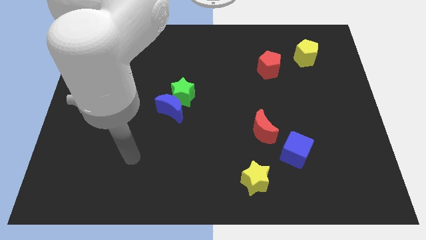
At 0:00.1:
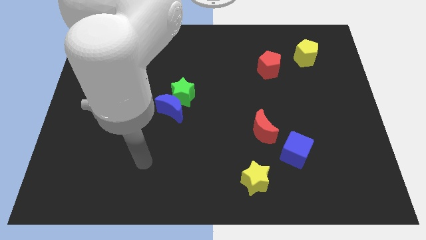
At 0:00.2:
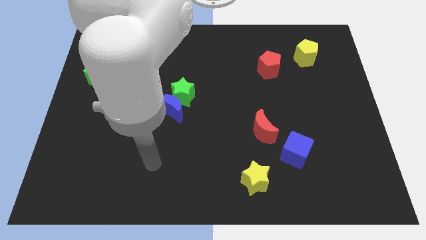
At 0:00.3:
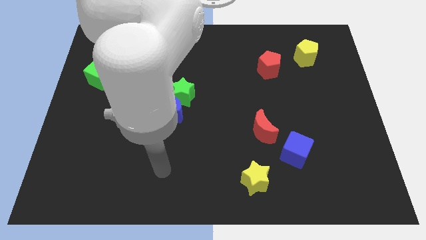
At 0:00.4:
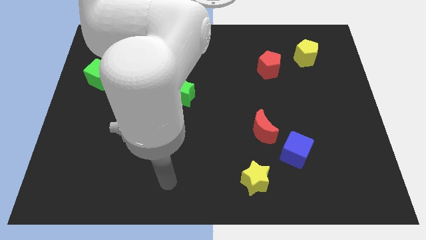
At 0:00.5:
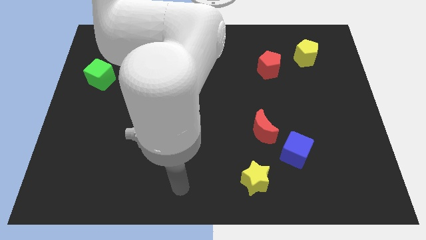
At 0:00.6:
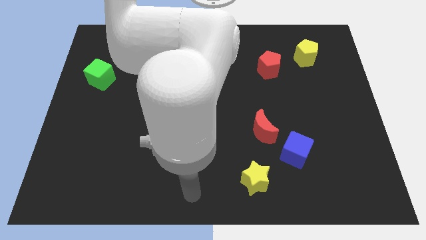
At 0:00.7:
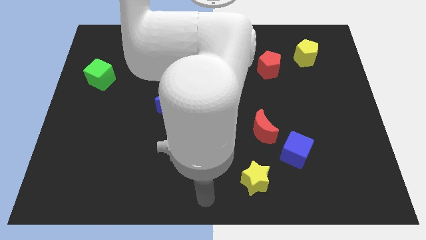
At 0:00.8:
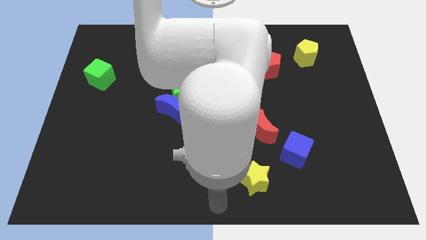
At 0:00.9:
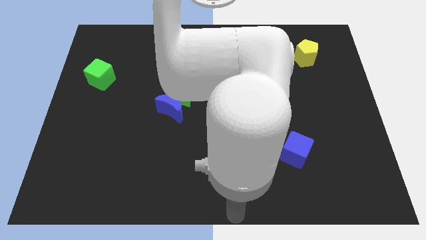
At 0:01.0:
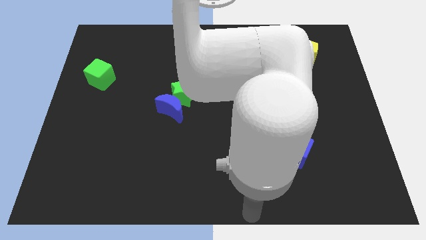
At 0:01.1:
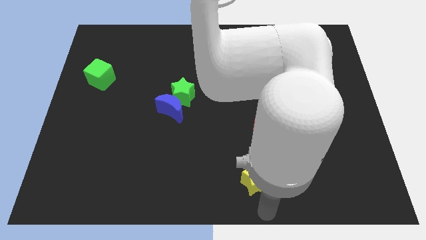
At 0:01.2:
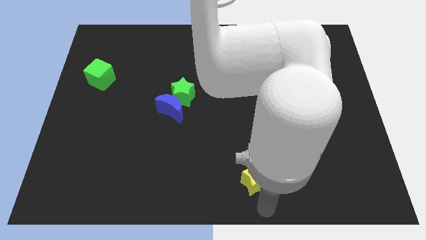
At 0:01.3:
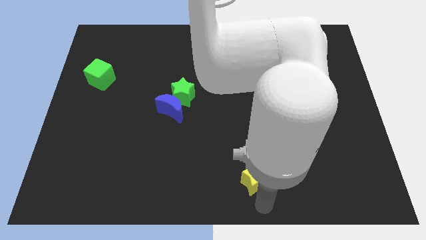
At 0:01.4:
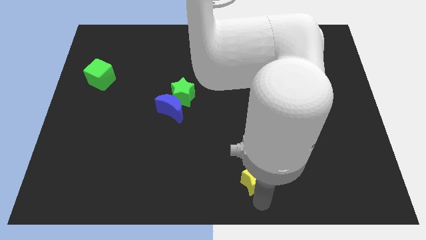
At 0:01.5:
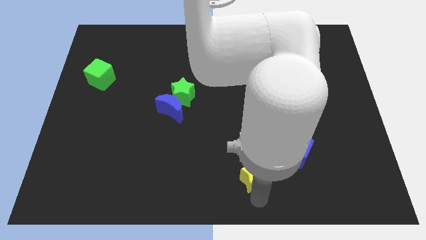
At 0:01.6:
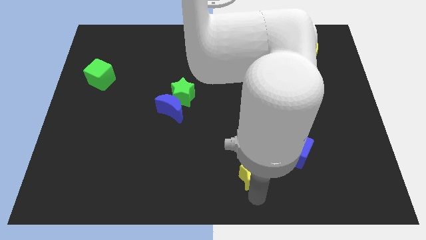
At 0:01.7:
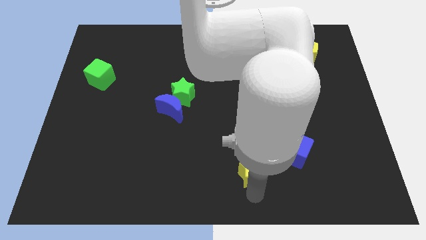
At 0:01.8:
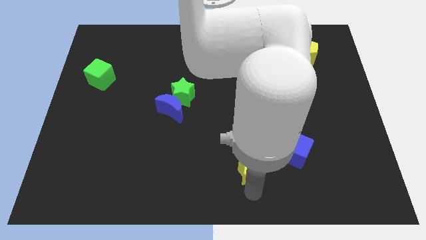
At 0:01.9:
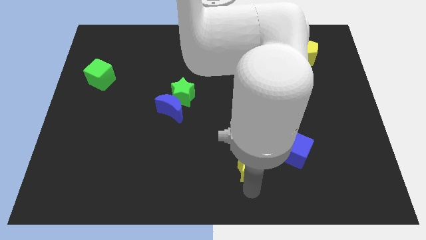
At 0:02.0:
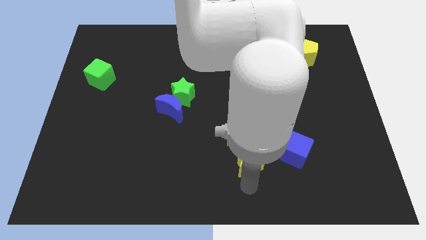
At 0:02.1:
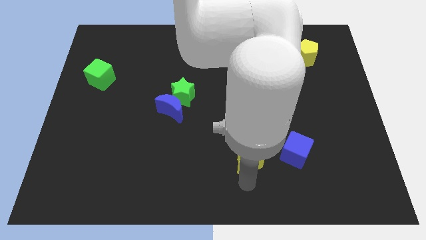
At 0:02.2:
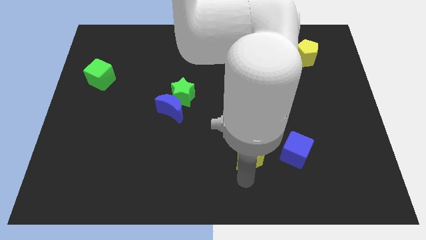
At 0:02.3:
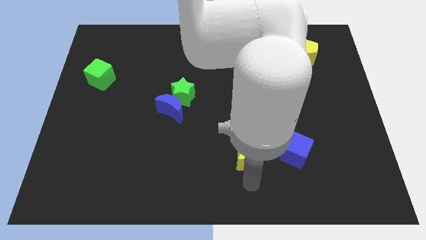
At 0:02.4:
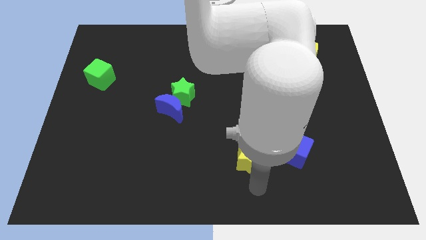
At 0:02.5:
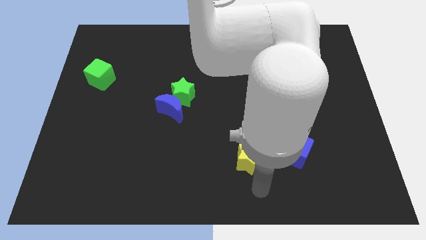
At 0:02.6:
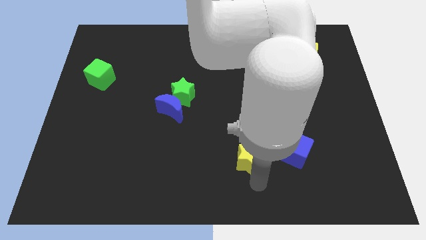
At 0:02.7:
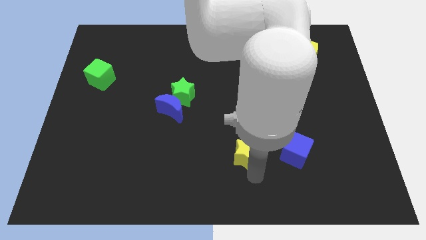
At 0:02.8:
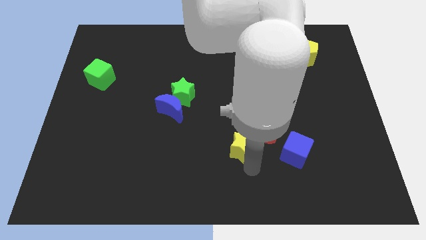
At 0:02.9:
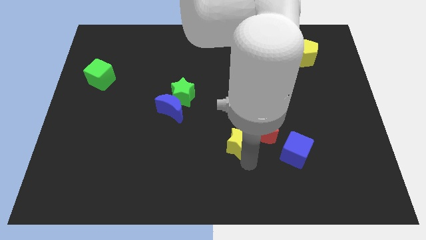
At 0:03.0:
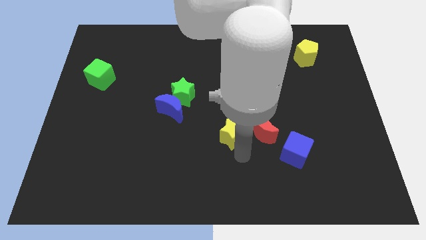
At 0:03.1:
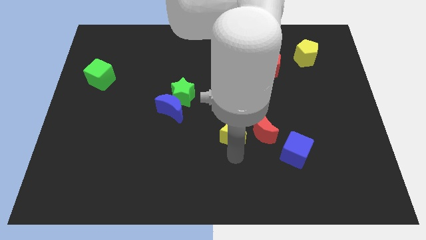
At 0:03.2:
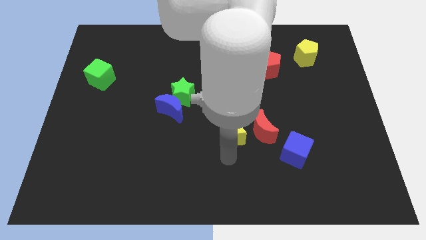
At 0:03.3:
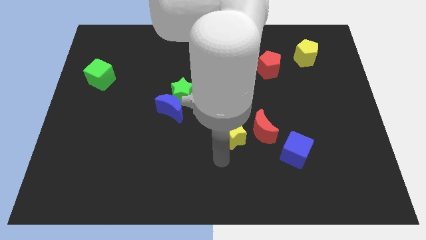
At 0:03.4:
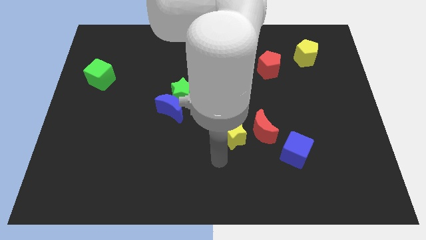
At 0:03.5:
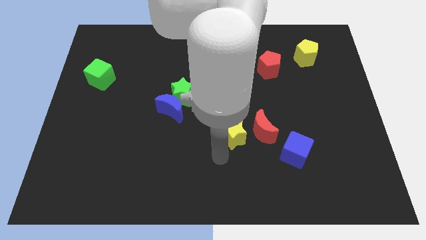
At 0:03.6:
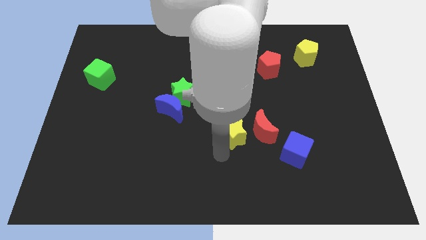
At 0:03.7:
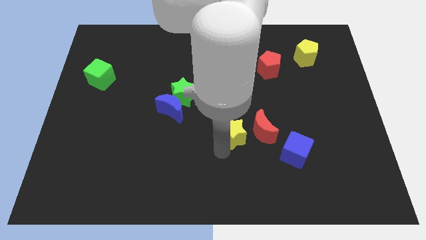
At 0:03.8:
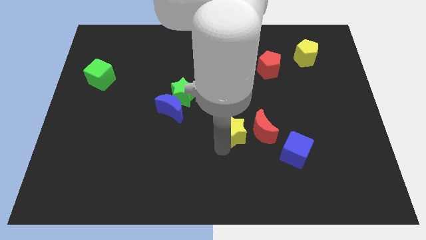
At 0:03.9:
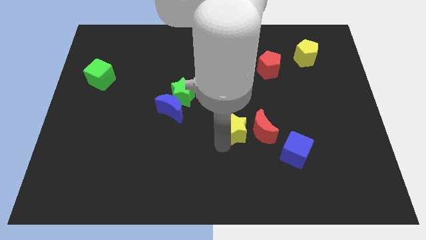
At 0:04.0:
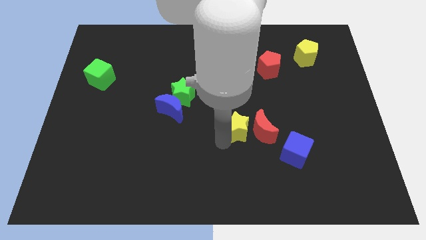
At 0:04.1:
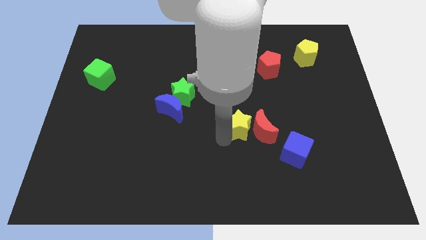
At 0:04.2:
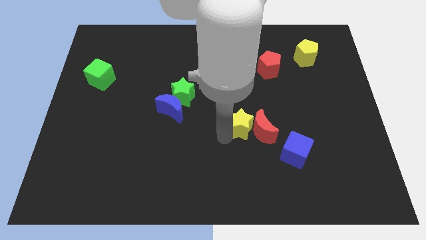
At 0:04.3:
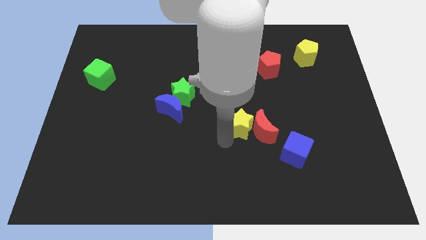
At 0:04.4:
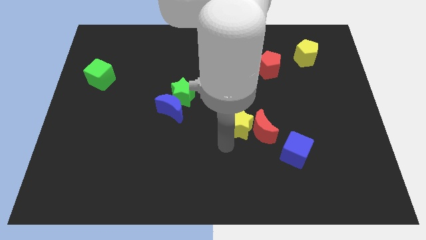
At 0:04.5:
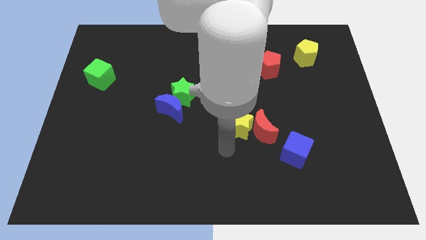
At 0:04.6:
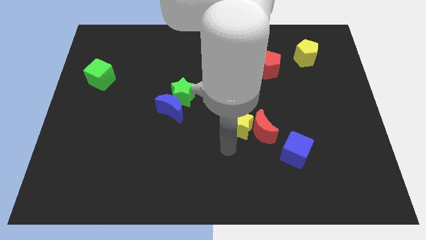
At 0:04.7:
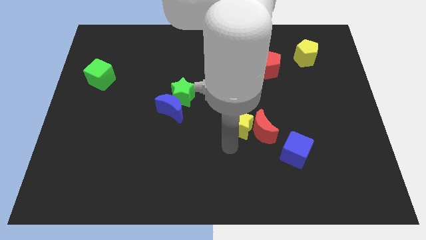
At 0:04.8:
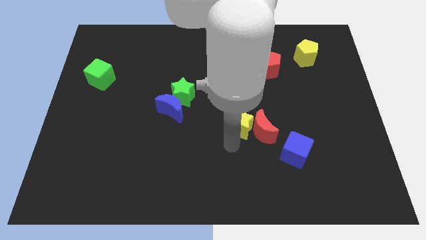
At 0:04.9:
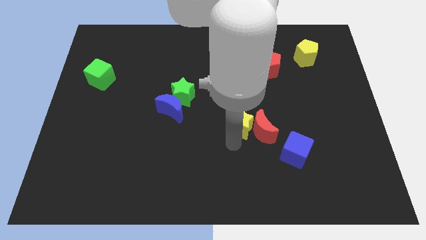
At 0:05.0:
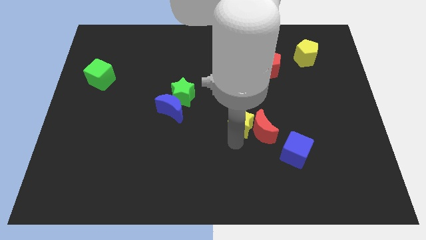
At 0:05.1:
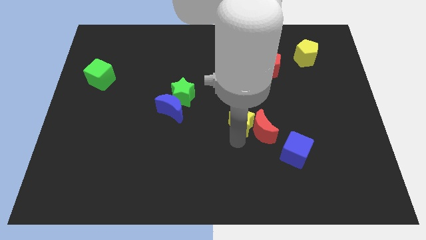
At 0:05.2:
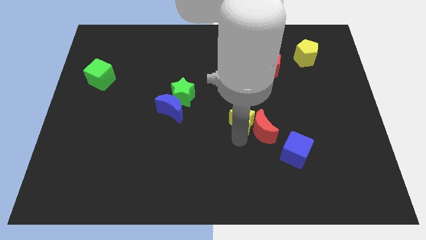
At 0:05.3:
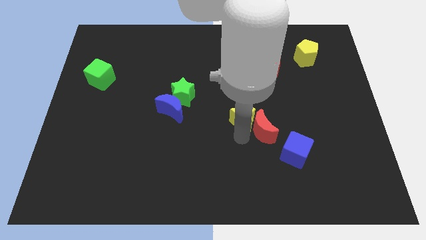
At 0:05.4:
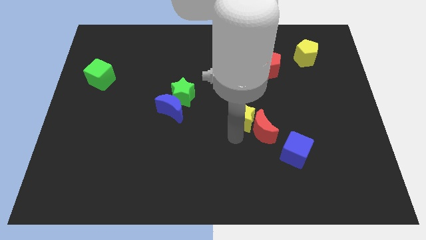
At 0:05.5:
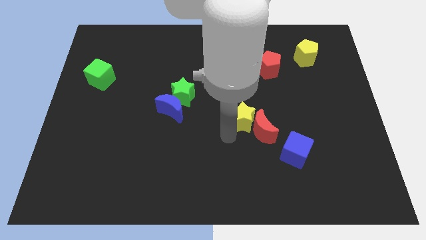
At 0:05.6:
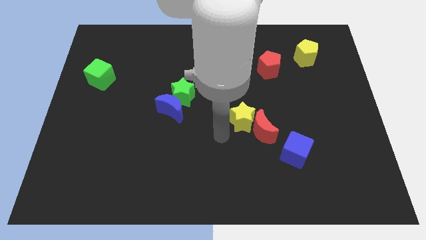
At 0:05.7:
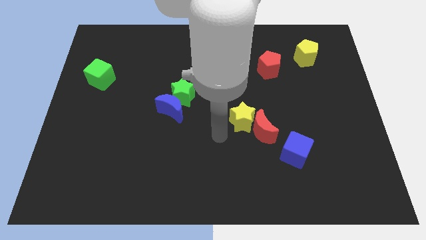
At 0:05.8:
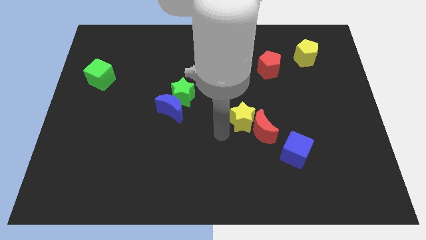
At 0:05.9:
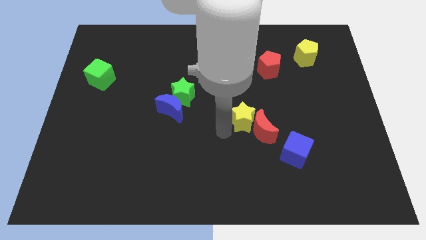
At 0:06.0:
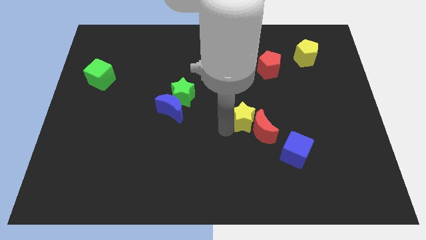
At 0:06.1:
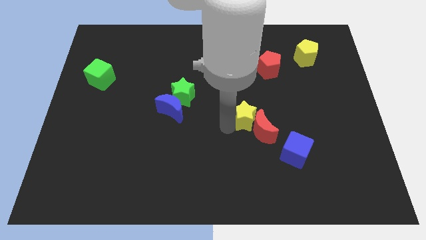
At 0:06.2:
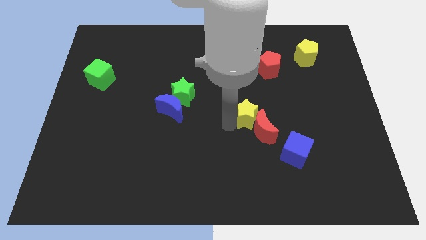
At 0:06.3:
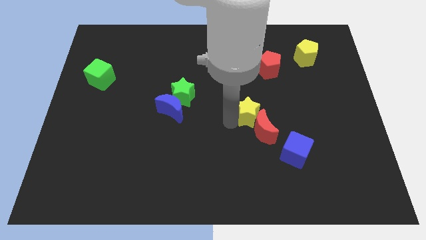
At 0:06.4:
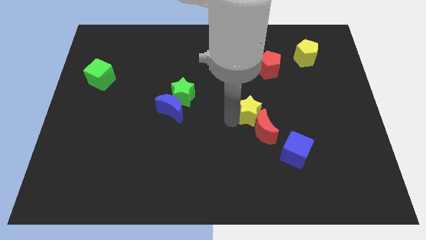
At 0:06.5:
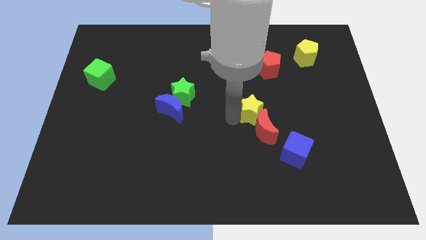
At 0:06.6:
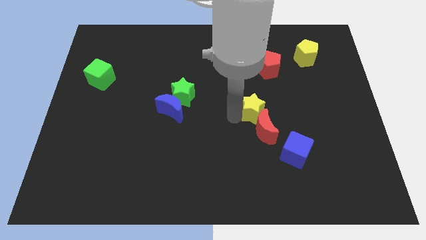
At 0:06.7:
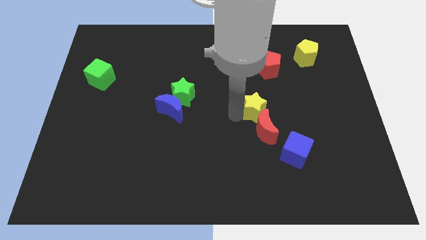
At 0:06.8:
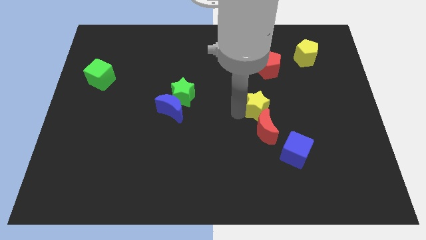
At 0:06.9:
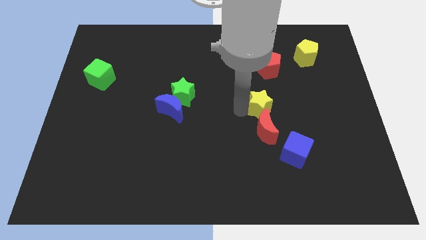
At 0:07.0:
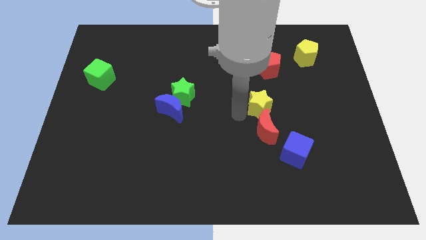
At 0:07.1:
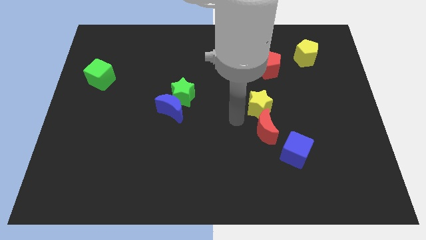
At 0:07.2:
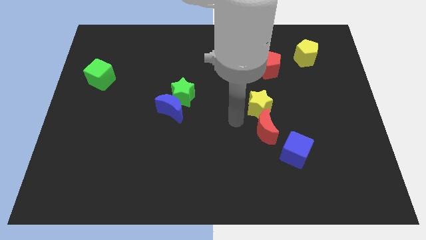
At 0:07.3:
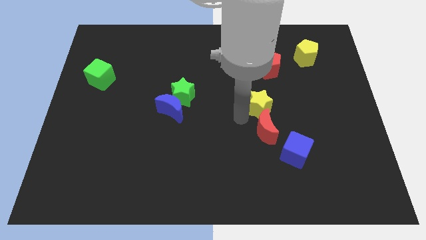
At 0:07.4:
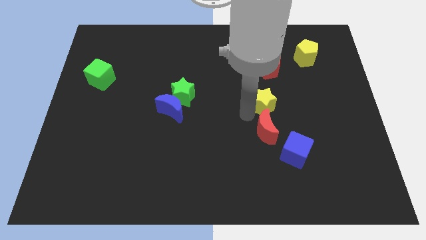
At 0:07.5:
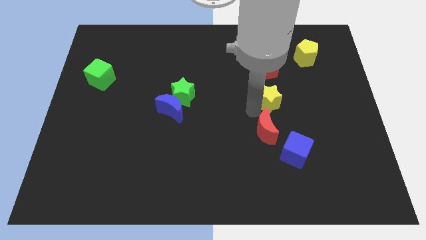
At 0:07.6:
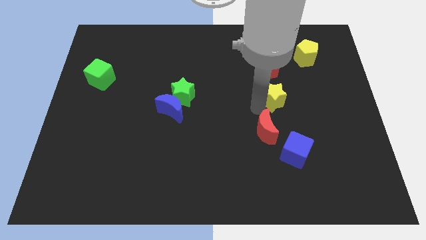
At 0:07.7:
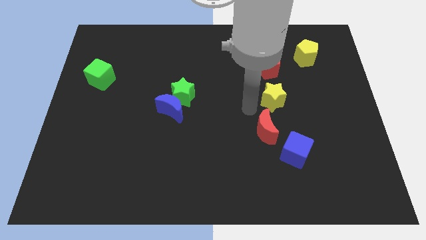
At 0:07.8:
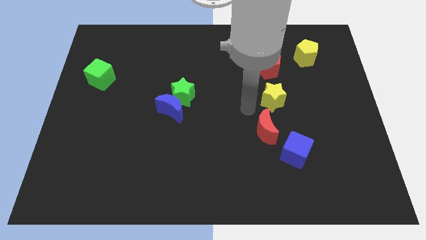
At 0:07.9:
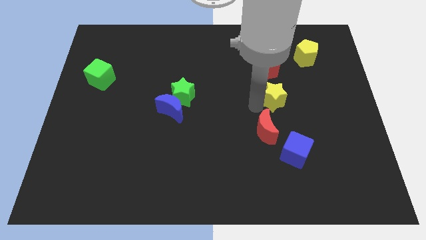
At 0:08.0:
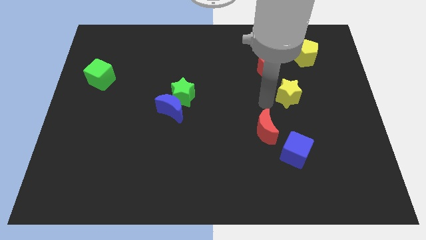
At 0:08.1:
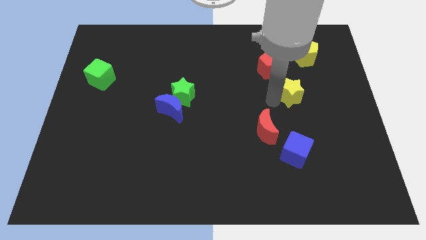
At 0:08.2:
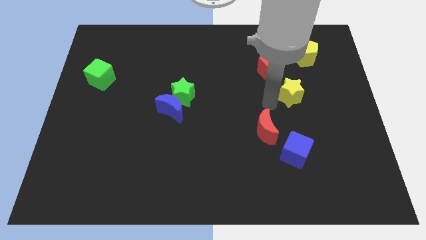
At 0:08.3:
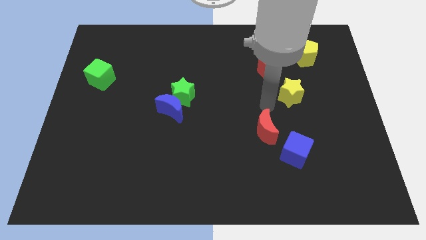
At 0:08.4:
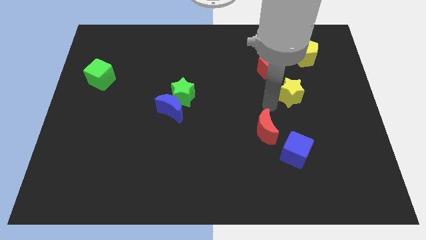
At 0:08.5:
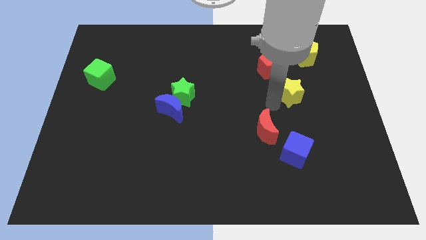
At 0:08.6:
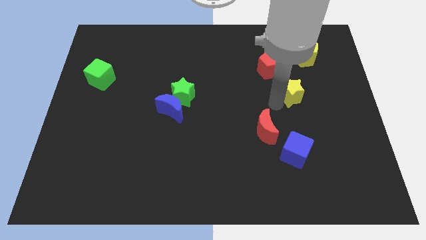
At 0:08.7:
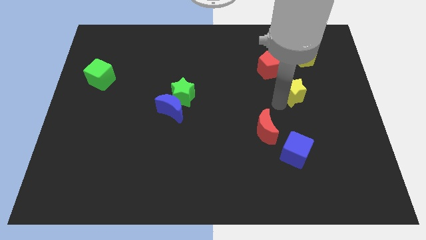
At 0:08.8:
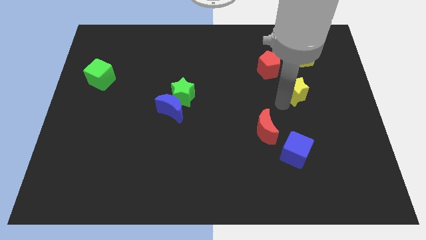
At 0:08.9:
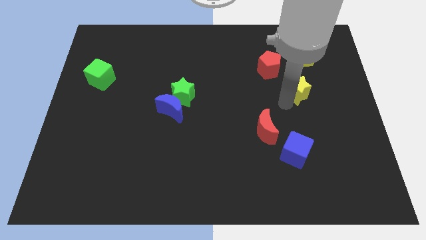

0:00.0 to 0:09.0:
put the yellow star to the bottom of the yellow pentagon
